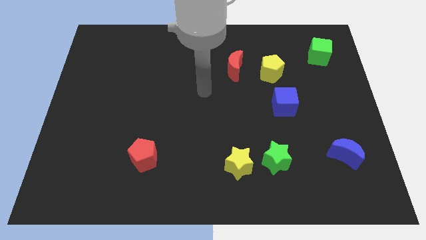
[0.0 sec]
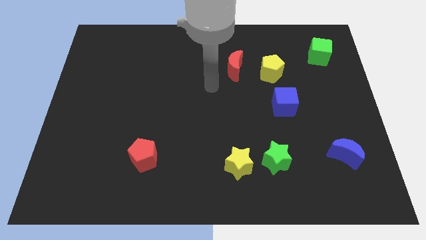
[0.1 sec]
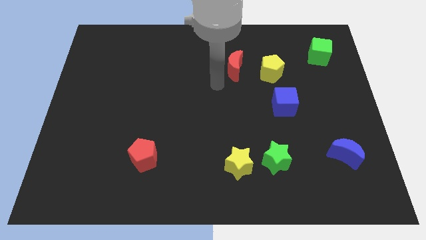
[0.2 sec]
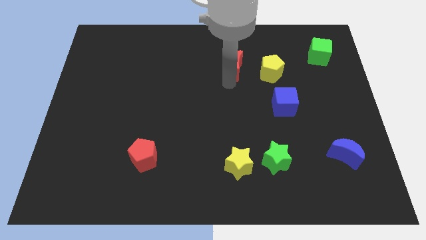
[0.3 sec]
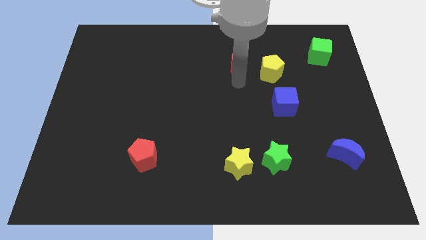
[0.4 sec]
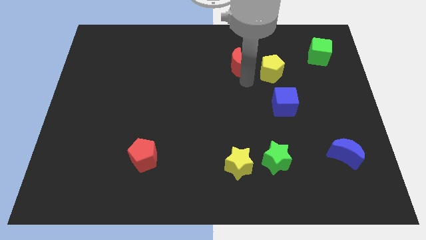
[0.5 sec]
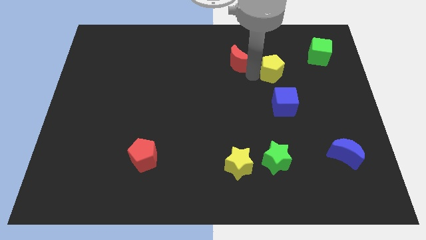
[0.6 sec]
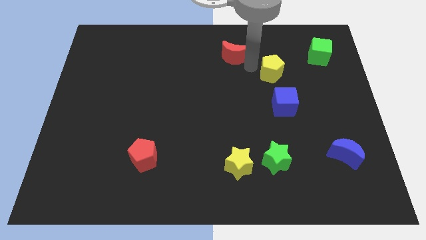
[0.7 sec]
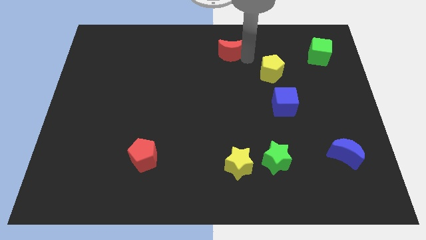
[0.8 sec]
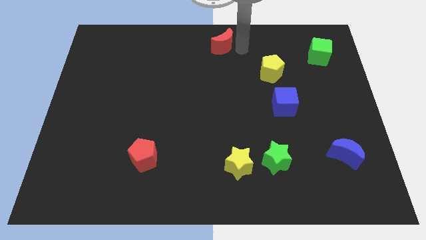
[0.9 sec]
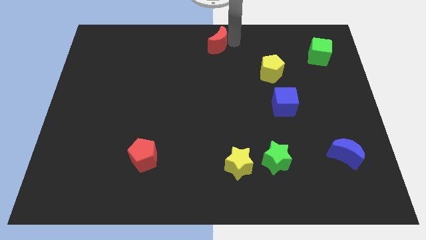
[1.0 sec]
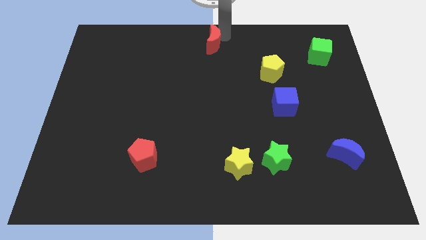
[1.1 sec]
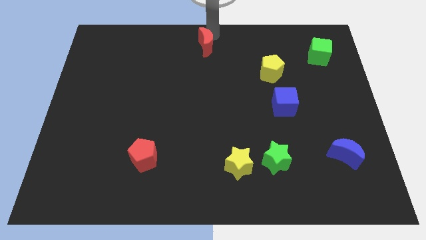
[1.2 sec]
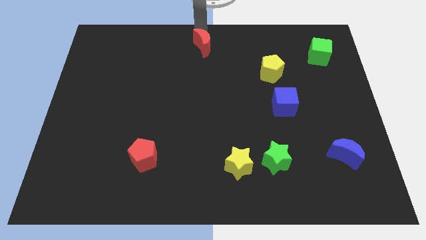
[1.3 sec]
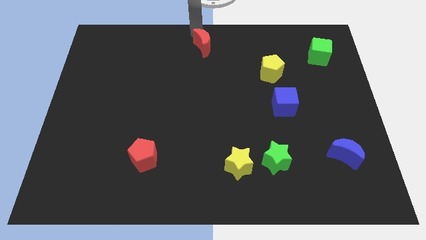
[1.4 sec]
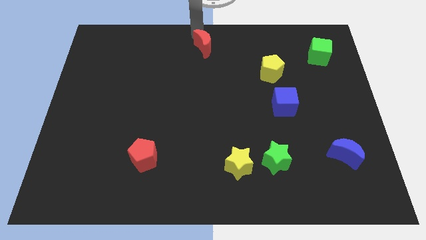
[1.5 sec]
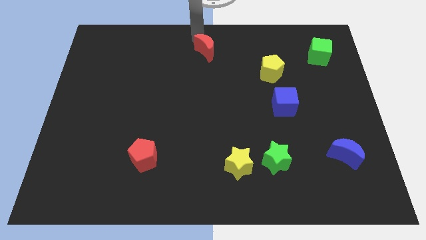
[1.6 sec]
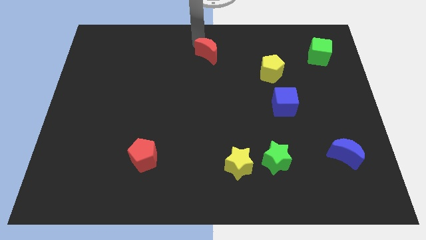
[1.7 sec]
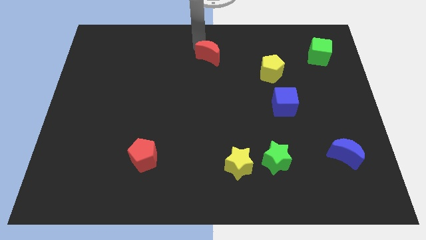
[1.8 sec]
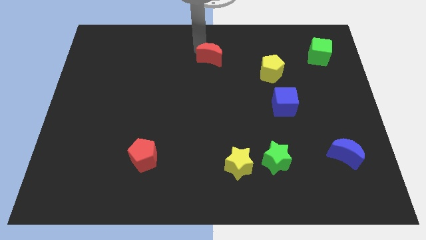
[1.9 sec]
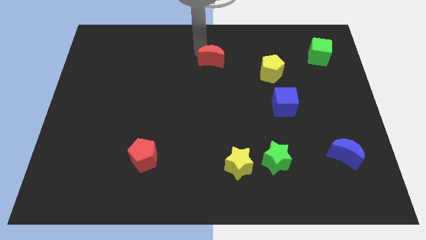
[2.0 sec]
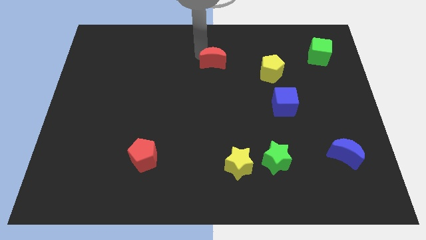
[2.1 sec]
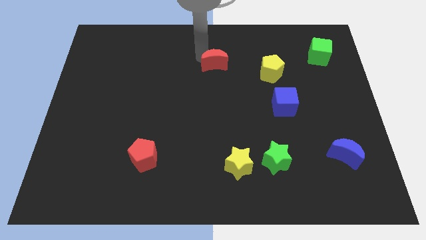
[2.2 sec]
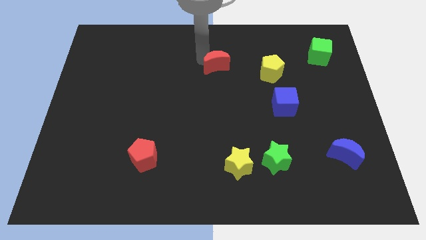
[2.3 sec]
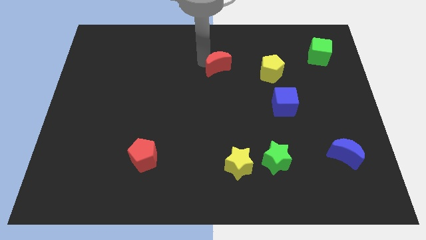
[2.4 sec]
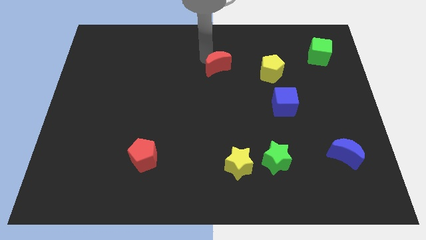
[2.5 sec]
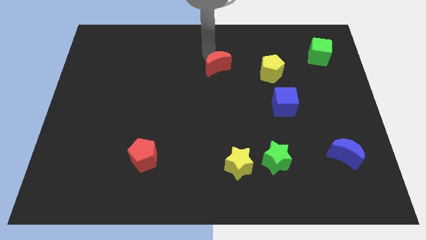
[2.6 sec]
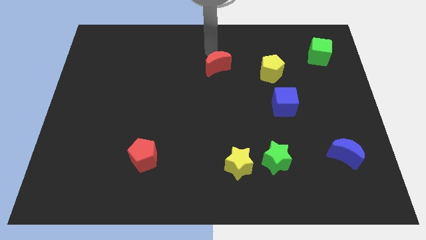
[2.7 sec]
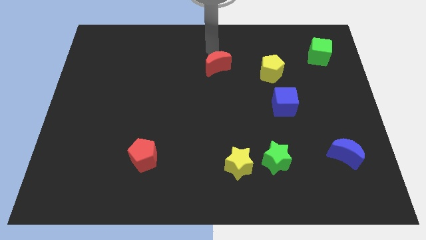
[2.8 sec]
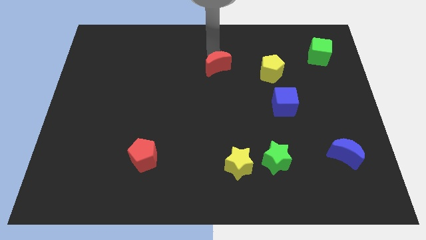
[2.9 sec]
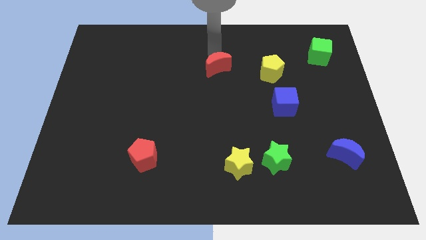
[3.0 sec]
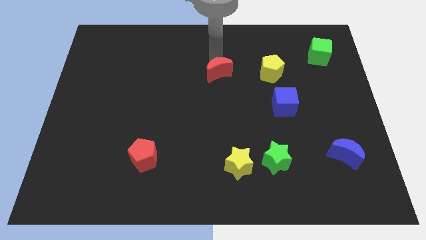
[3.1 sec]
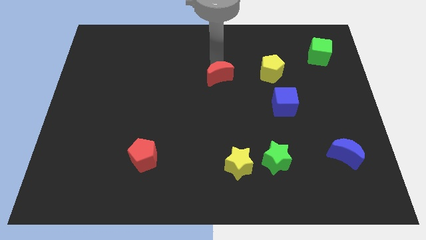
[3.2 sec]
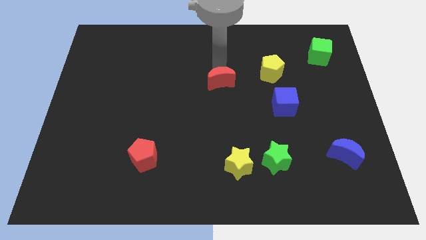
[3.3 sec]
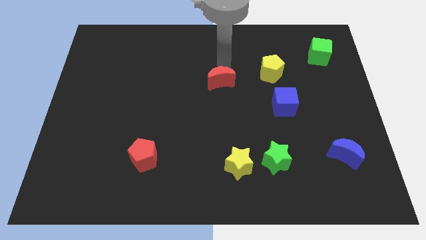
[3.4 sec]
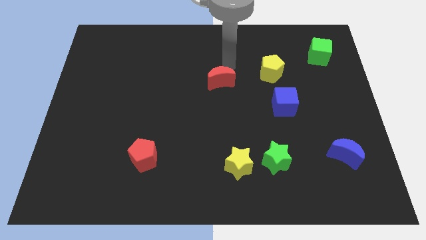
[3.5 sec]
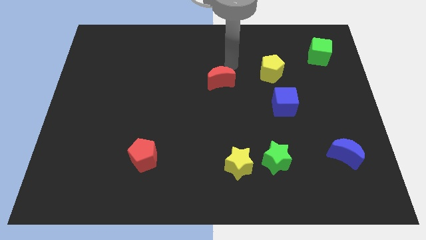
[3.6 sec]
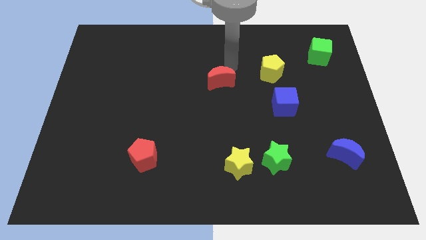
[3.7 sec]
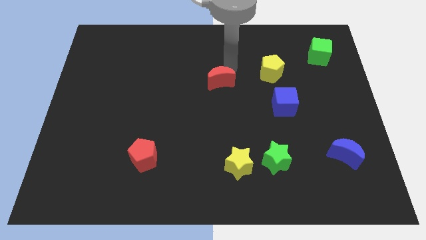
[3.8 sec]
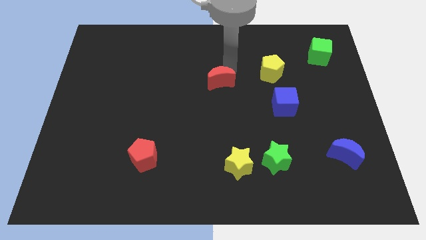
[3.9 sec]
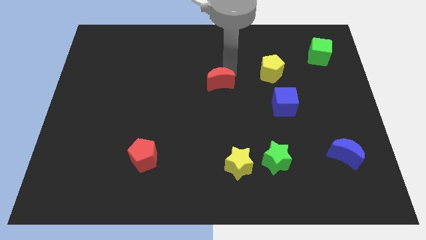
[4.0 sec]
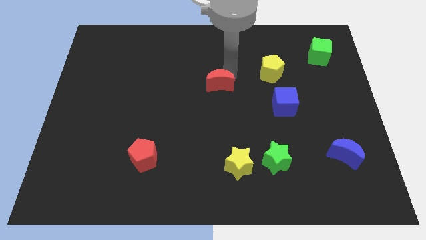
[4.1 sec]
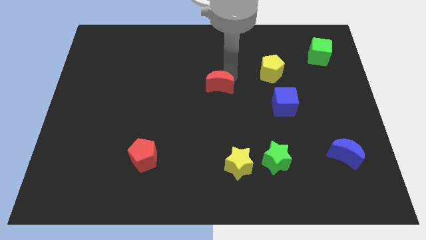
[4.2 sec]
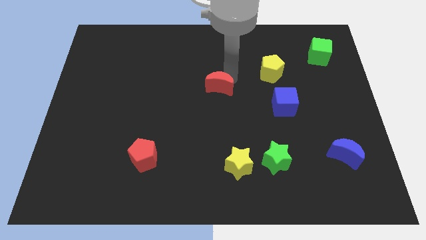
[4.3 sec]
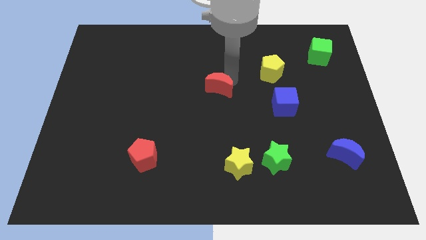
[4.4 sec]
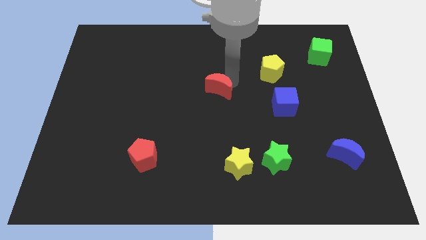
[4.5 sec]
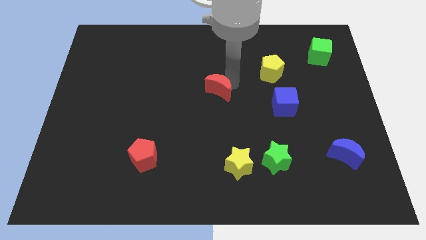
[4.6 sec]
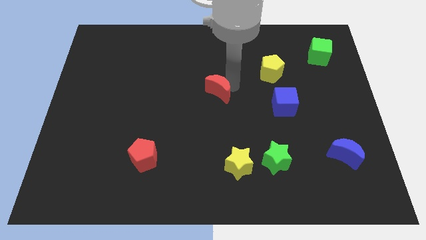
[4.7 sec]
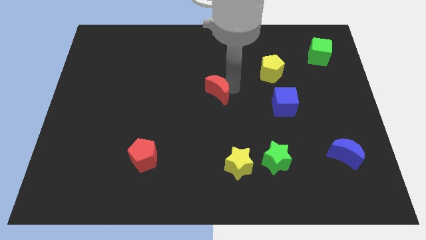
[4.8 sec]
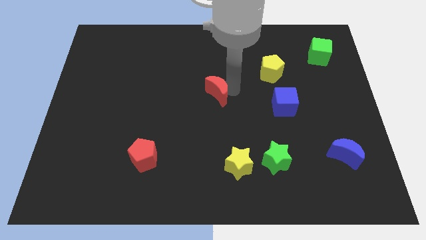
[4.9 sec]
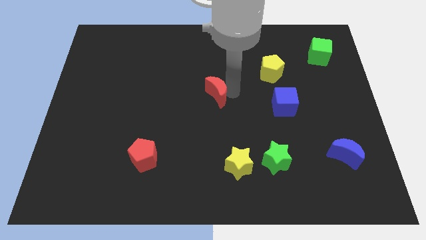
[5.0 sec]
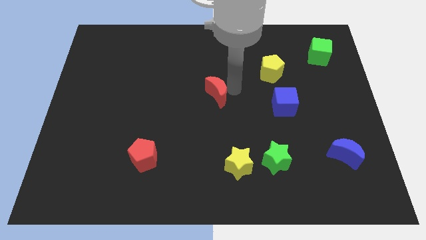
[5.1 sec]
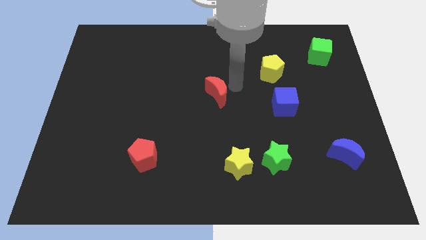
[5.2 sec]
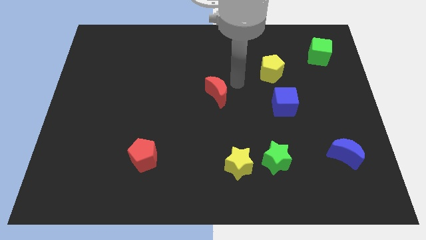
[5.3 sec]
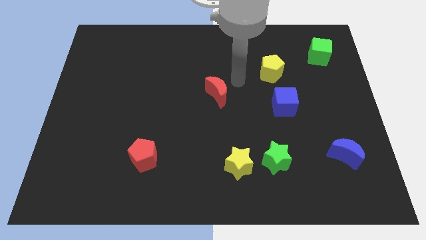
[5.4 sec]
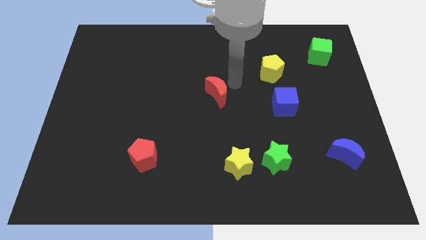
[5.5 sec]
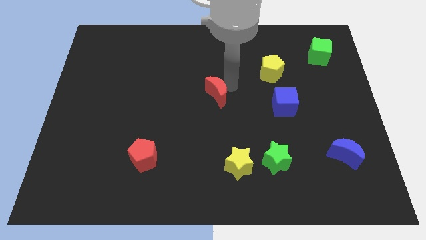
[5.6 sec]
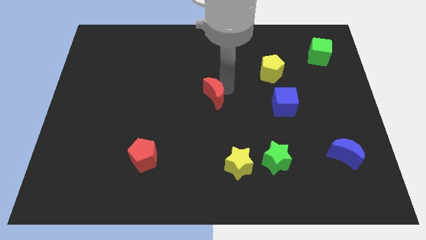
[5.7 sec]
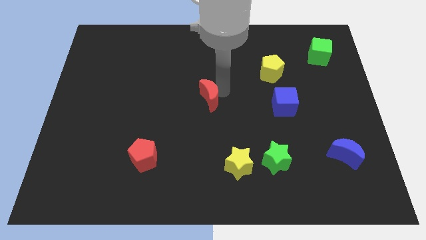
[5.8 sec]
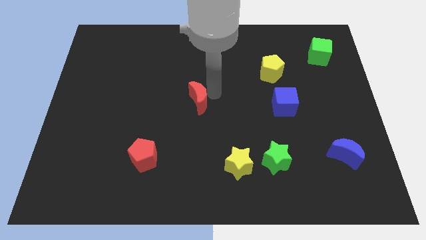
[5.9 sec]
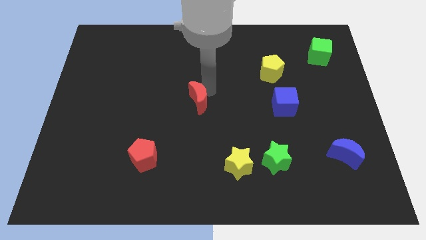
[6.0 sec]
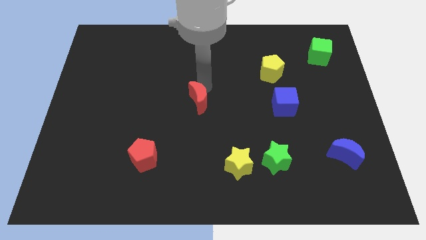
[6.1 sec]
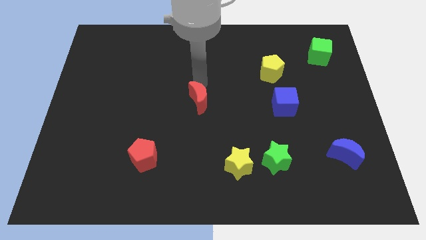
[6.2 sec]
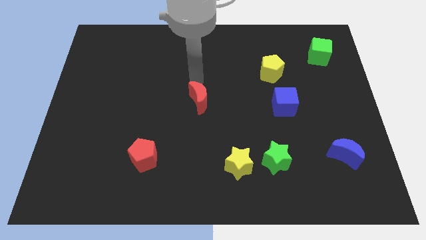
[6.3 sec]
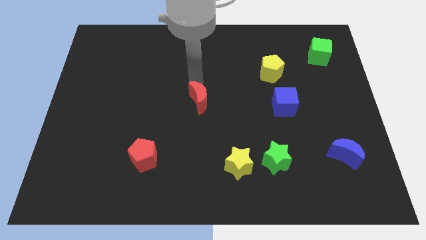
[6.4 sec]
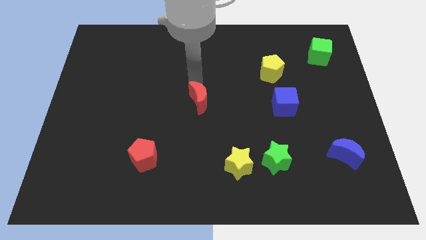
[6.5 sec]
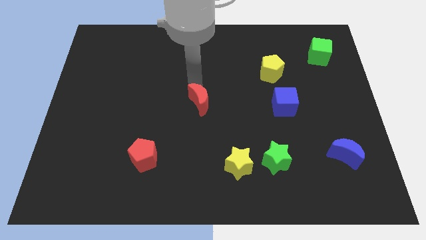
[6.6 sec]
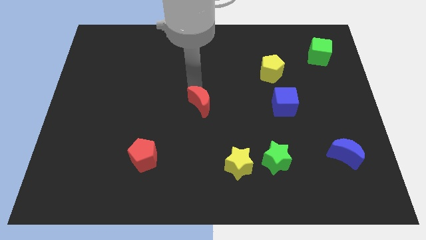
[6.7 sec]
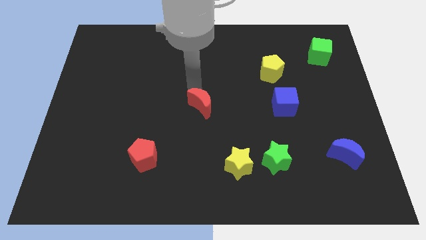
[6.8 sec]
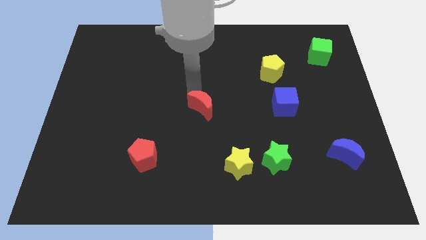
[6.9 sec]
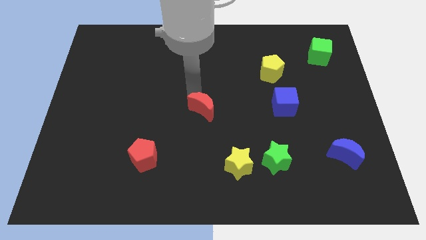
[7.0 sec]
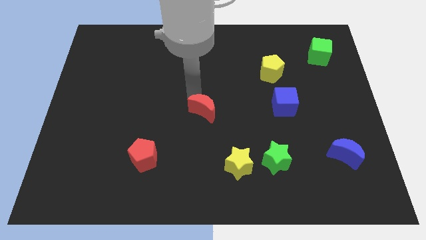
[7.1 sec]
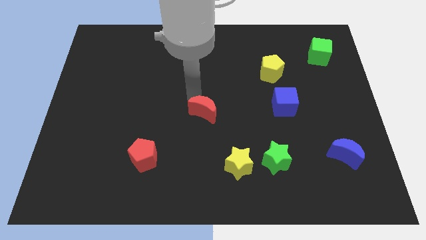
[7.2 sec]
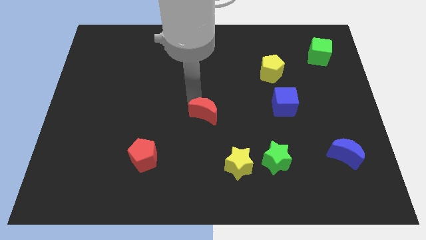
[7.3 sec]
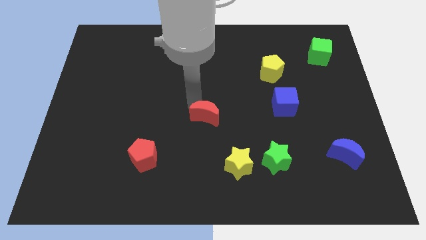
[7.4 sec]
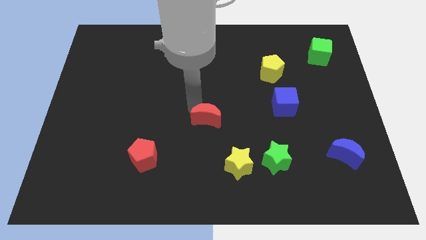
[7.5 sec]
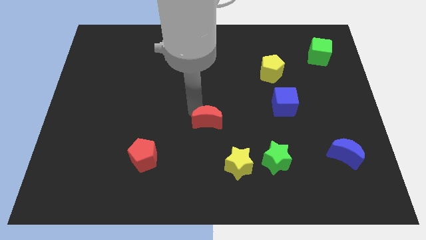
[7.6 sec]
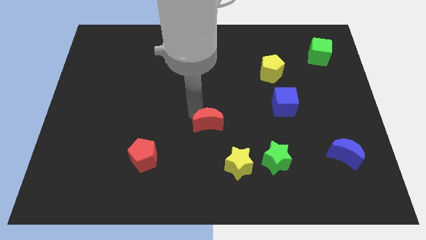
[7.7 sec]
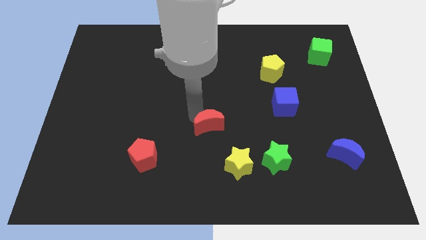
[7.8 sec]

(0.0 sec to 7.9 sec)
slide the red moon diagonally up and to the left of the yellow star
